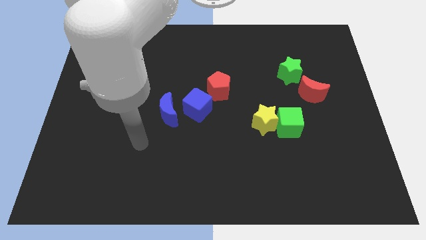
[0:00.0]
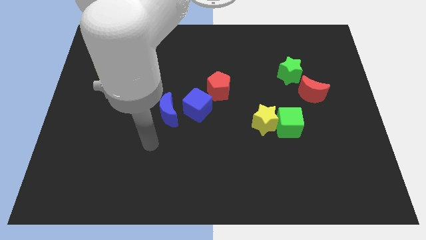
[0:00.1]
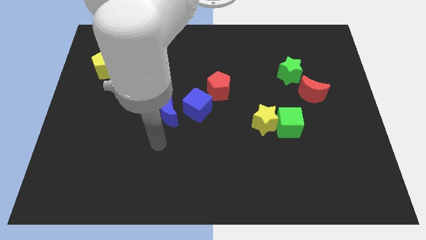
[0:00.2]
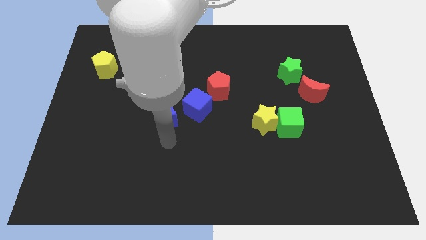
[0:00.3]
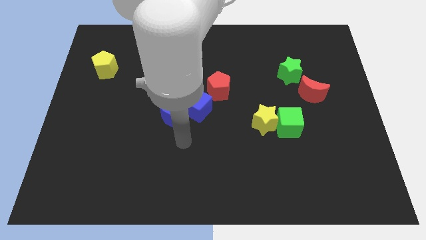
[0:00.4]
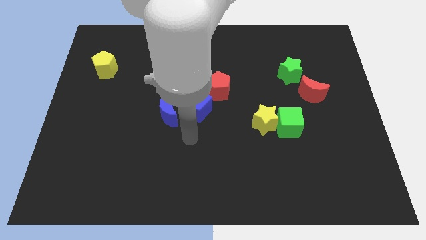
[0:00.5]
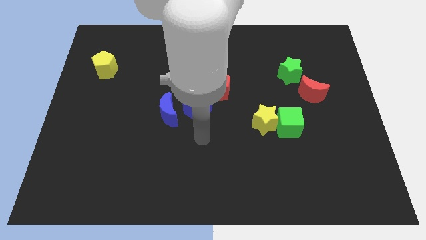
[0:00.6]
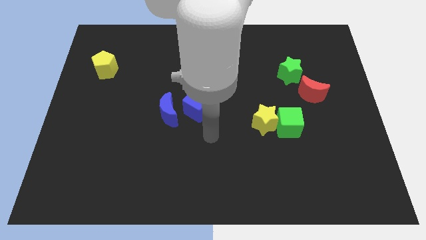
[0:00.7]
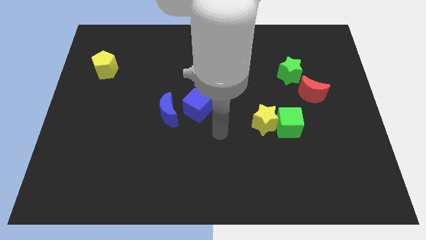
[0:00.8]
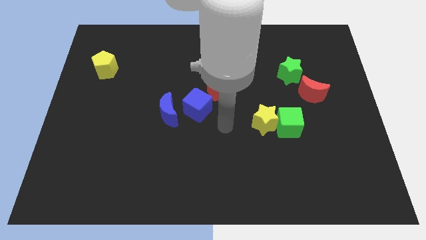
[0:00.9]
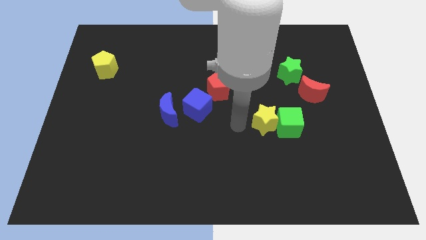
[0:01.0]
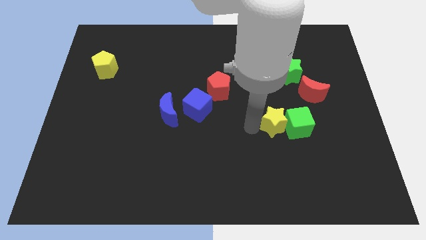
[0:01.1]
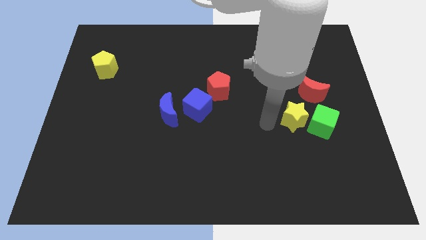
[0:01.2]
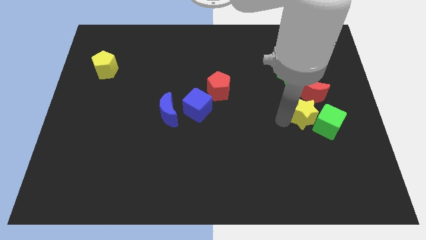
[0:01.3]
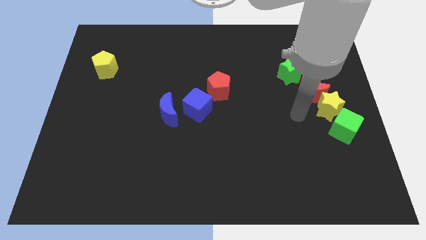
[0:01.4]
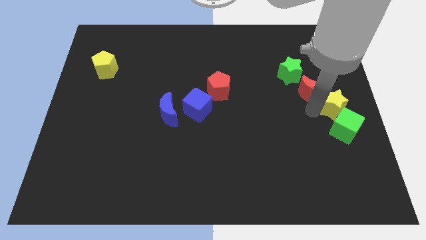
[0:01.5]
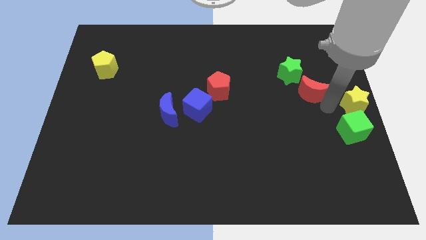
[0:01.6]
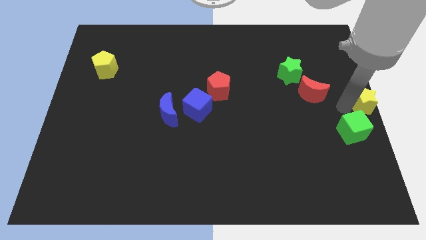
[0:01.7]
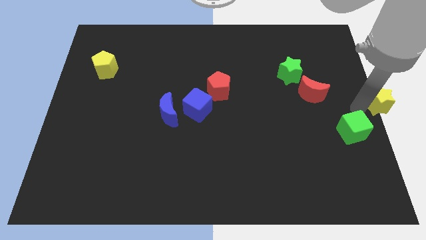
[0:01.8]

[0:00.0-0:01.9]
separate the green cube from the yellow star

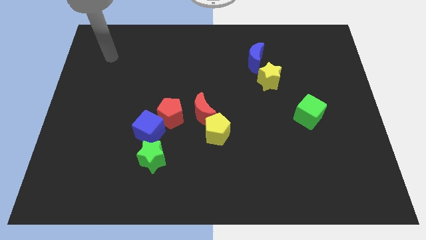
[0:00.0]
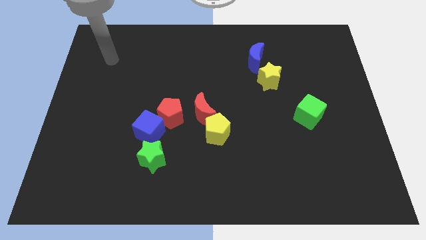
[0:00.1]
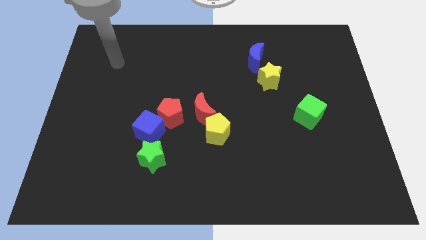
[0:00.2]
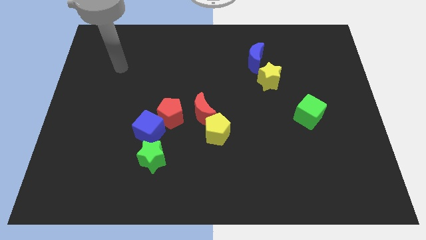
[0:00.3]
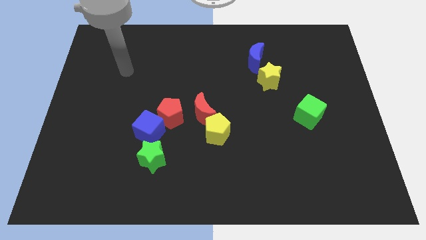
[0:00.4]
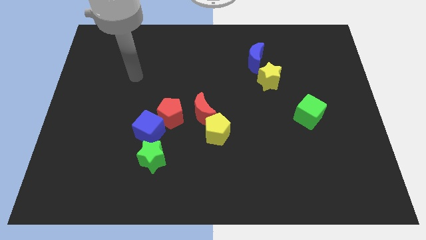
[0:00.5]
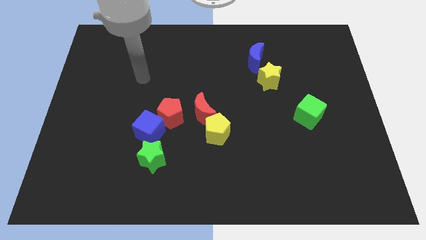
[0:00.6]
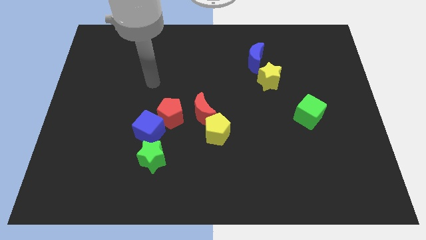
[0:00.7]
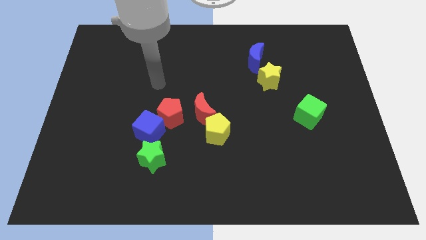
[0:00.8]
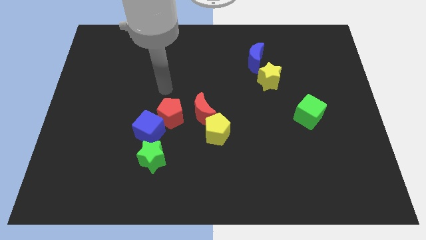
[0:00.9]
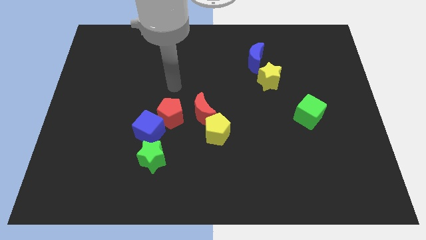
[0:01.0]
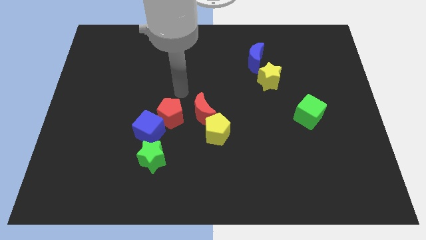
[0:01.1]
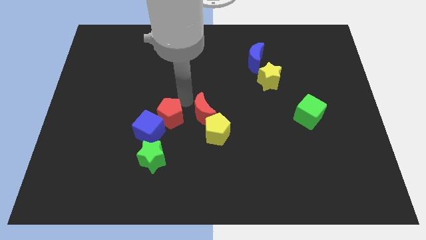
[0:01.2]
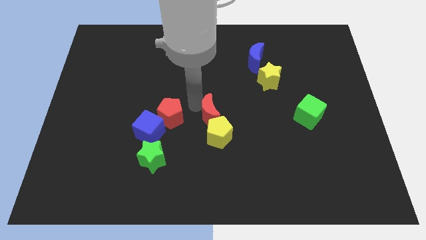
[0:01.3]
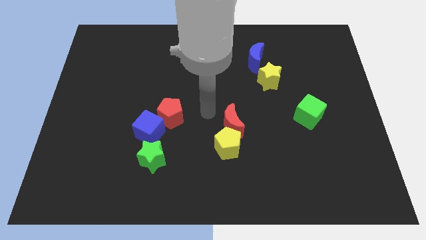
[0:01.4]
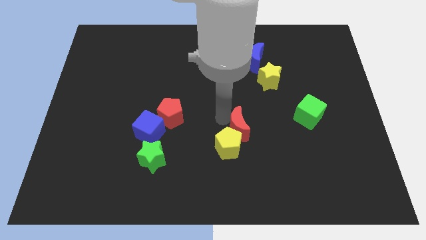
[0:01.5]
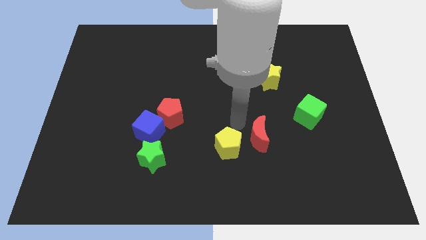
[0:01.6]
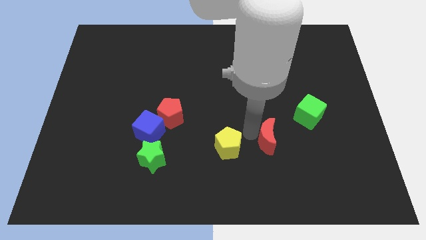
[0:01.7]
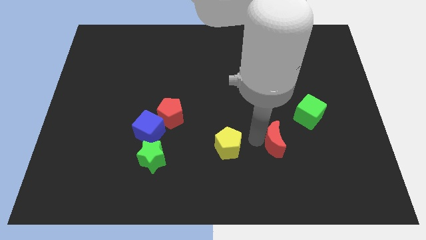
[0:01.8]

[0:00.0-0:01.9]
separate the yellow pentagon from the red moon

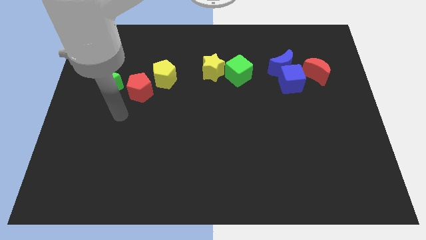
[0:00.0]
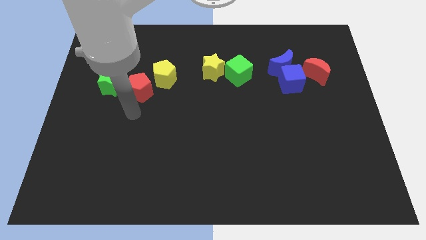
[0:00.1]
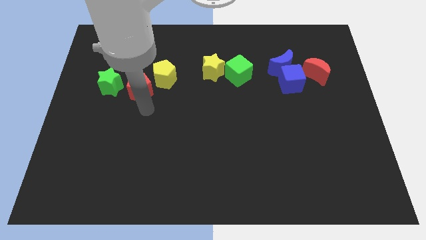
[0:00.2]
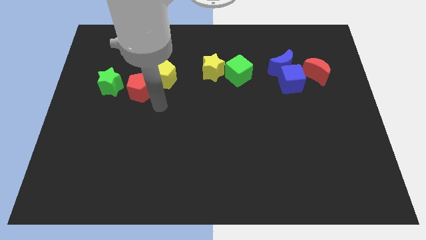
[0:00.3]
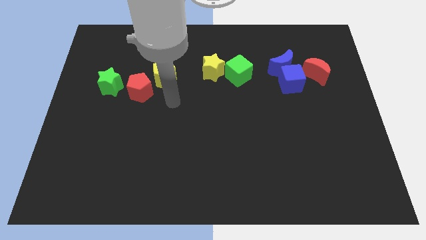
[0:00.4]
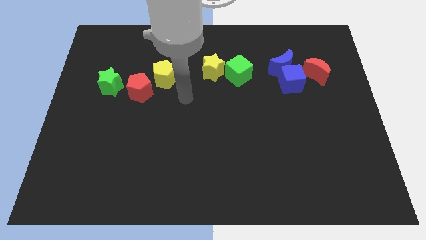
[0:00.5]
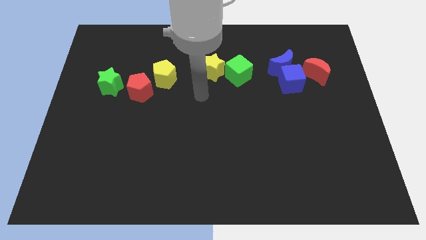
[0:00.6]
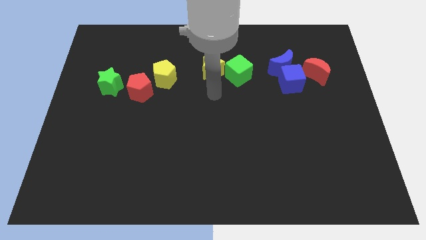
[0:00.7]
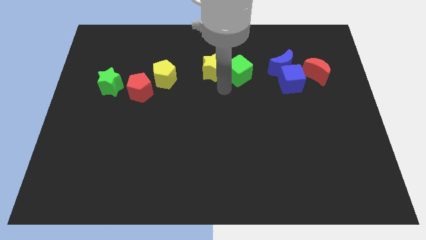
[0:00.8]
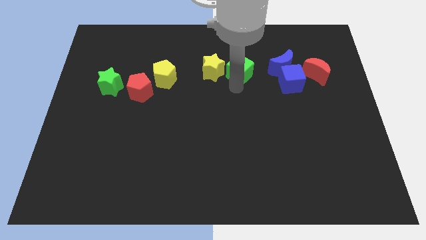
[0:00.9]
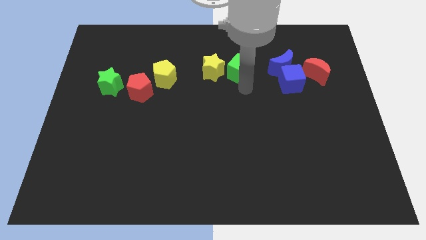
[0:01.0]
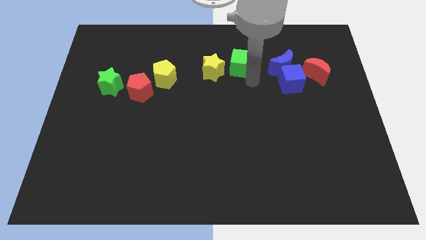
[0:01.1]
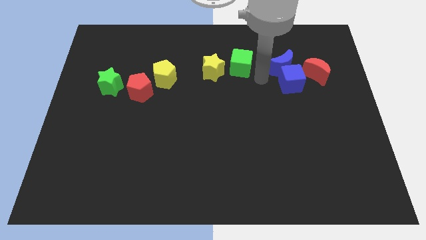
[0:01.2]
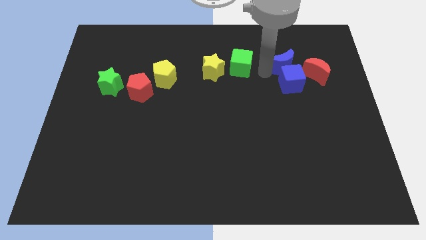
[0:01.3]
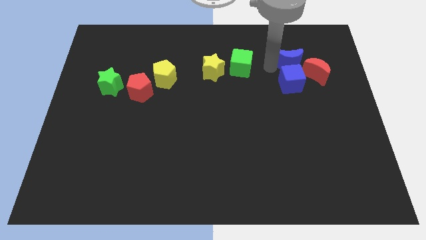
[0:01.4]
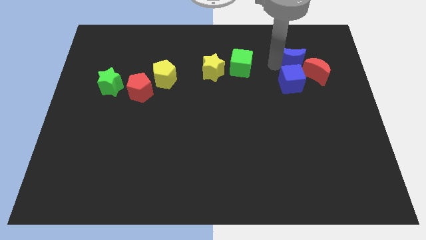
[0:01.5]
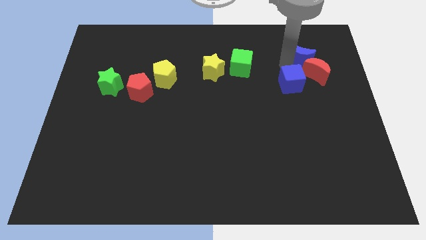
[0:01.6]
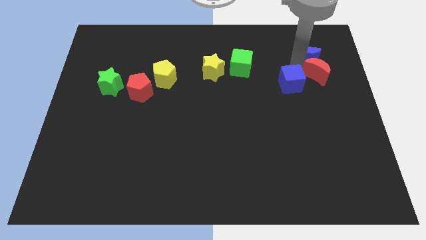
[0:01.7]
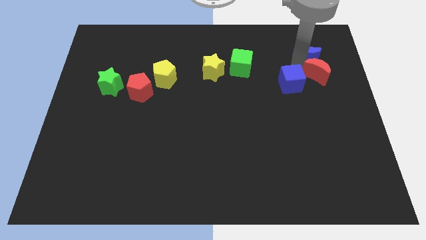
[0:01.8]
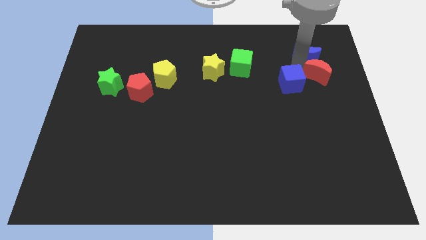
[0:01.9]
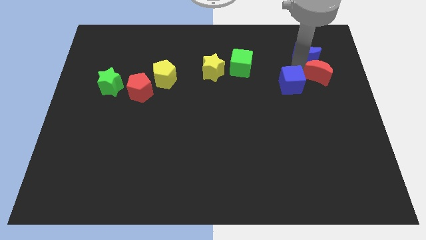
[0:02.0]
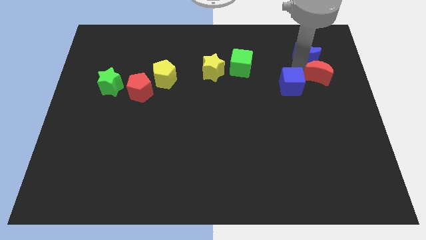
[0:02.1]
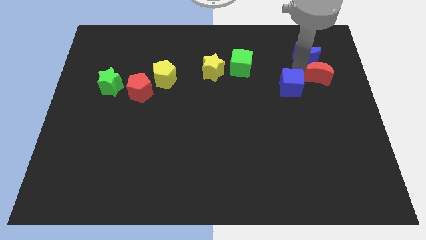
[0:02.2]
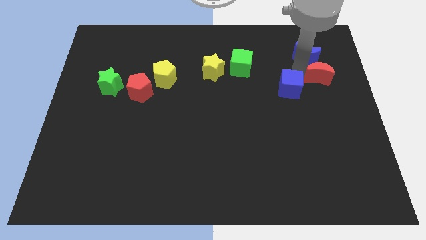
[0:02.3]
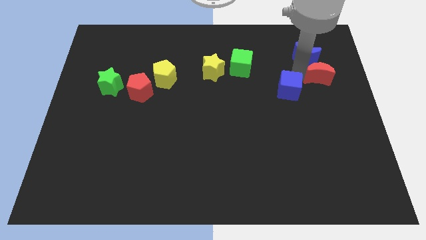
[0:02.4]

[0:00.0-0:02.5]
move the blue cube away from the blue moon and red moon

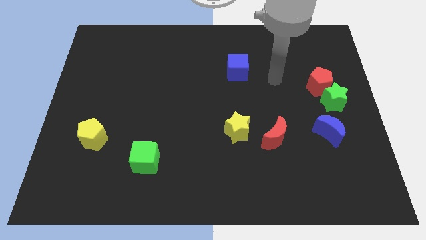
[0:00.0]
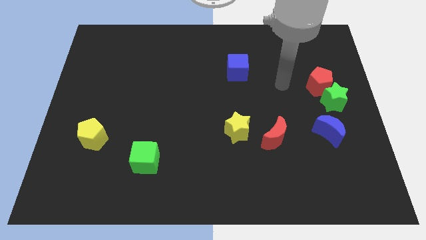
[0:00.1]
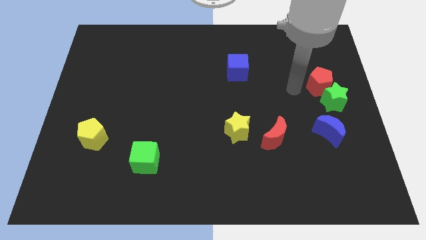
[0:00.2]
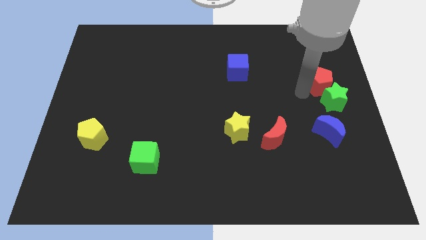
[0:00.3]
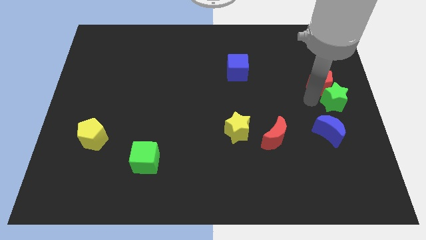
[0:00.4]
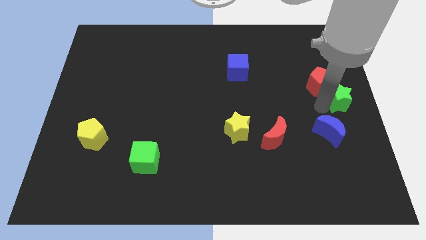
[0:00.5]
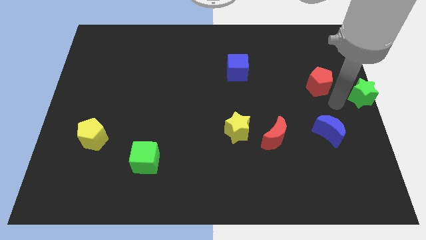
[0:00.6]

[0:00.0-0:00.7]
separate the red pentagon from the green star

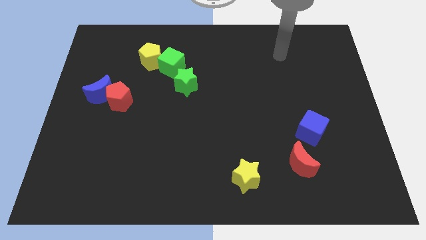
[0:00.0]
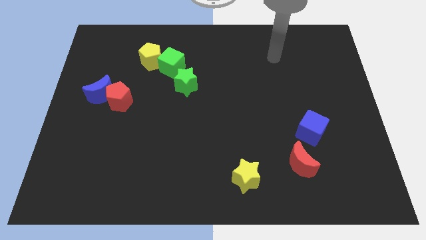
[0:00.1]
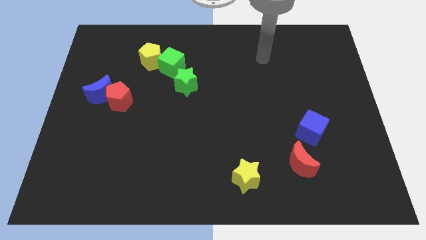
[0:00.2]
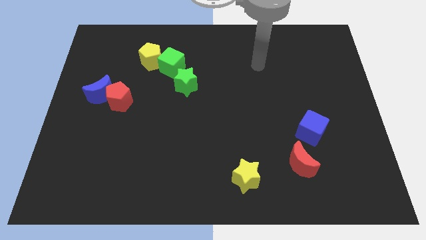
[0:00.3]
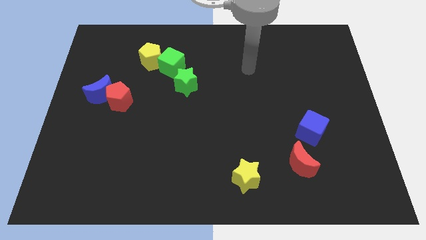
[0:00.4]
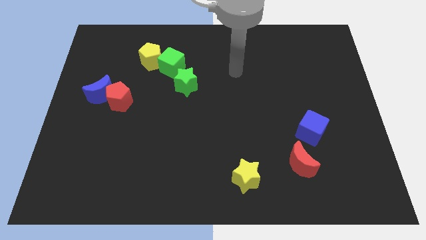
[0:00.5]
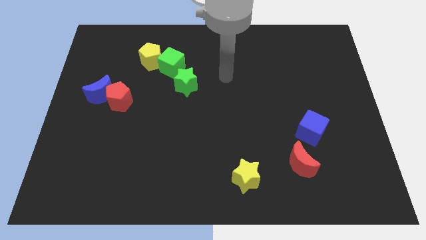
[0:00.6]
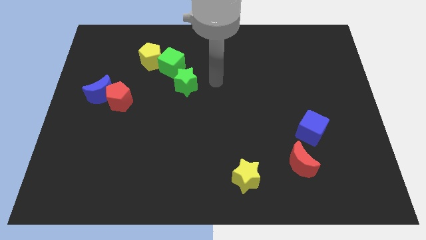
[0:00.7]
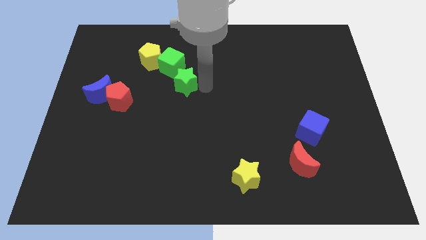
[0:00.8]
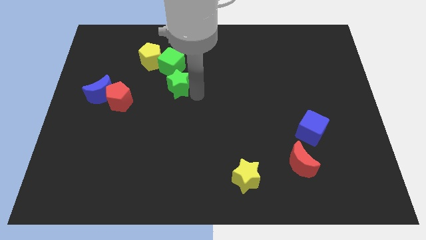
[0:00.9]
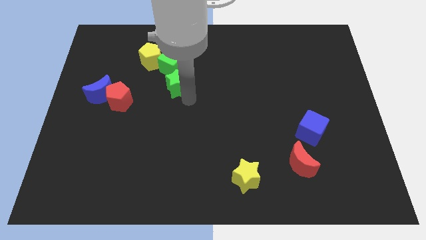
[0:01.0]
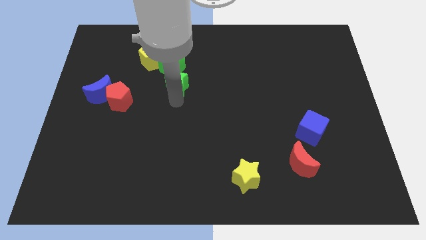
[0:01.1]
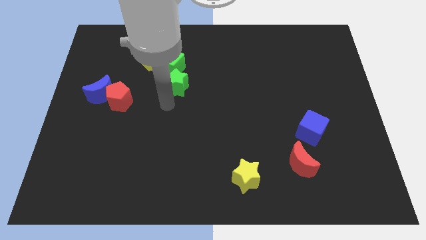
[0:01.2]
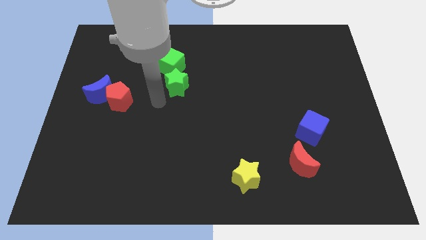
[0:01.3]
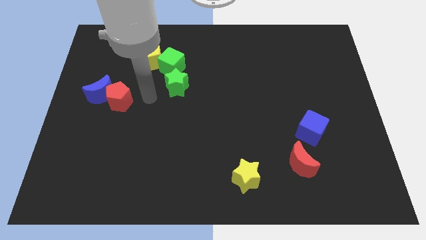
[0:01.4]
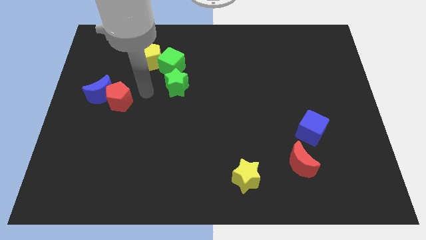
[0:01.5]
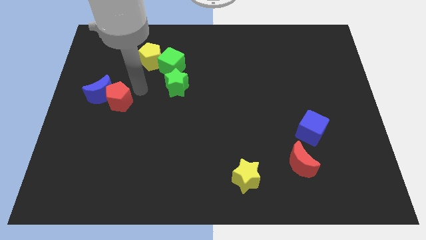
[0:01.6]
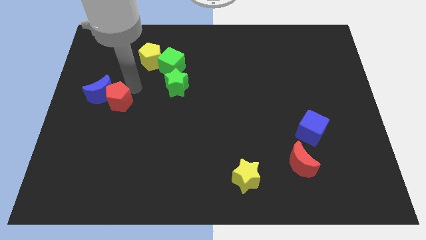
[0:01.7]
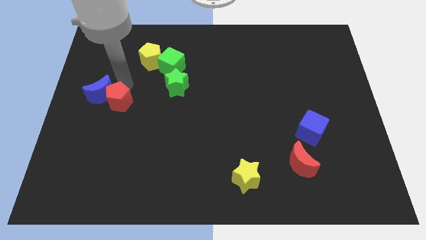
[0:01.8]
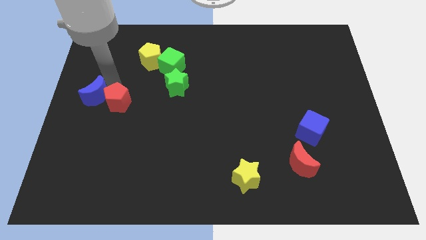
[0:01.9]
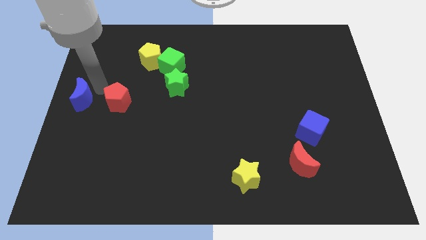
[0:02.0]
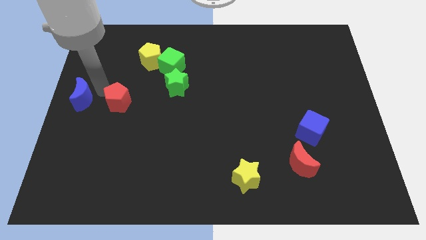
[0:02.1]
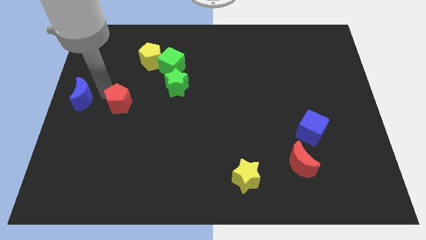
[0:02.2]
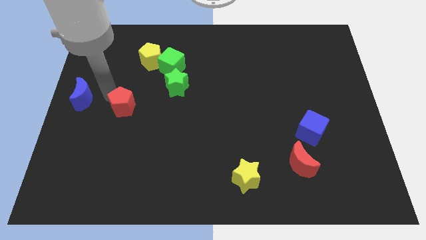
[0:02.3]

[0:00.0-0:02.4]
move the red pentagon away from the blue moon
